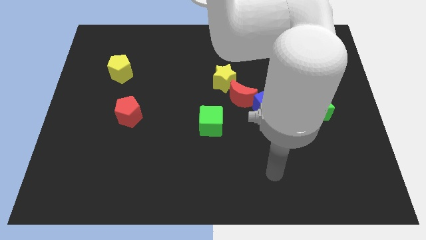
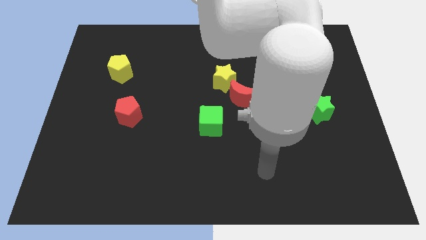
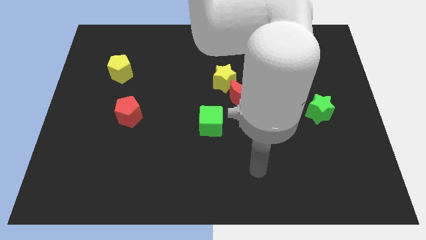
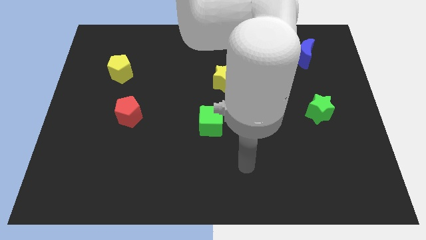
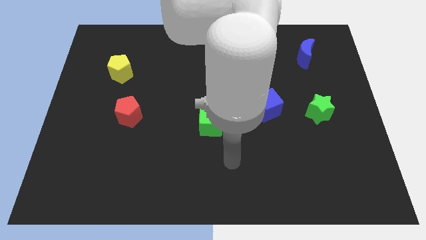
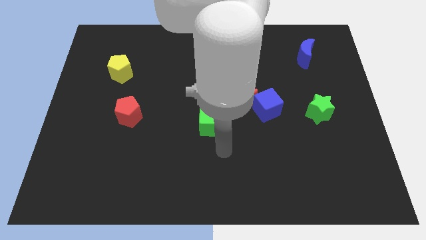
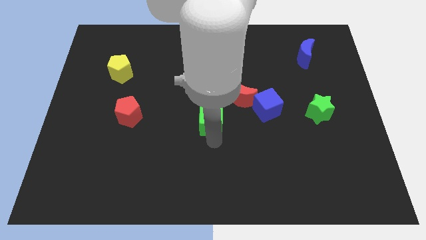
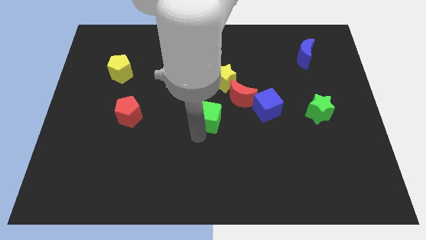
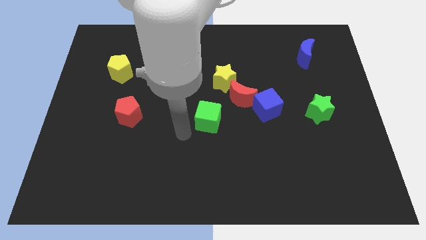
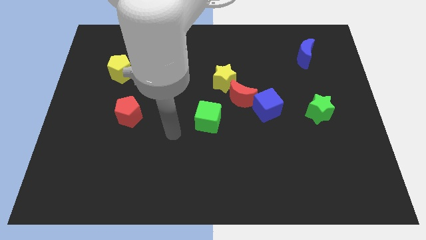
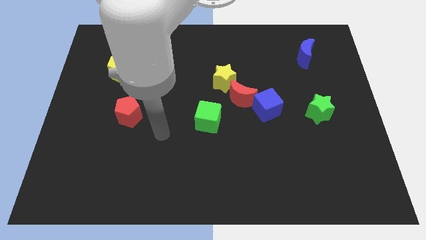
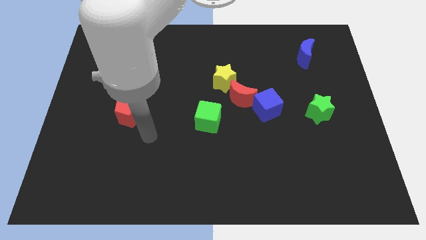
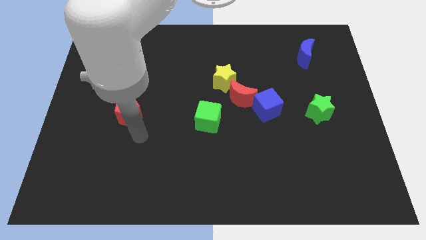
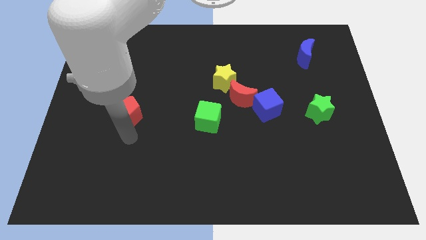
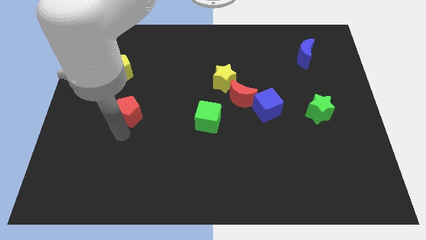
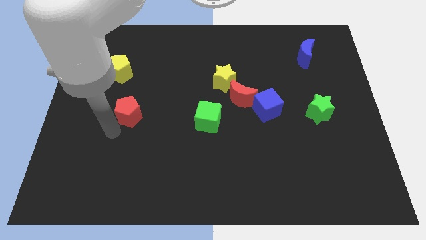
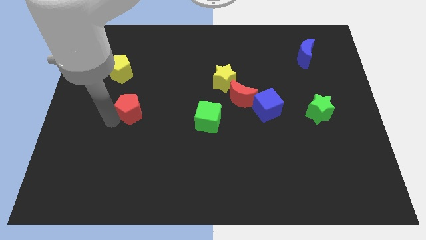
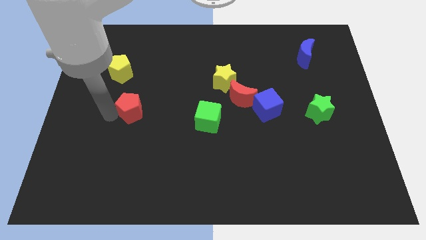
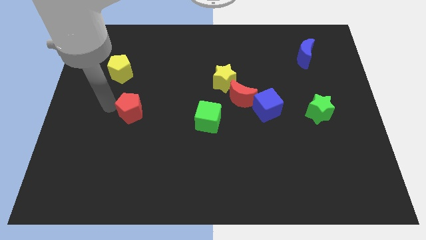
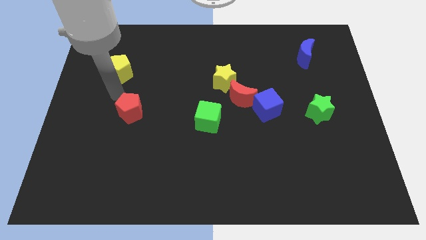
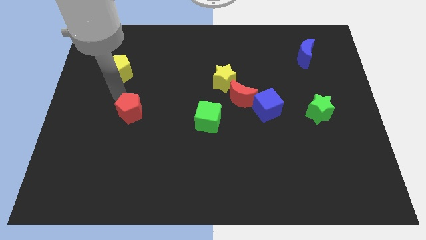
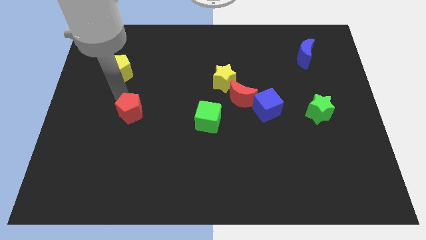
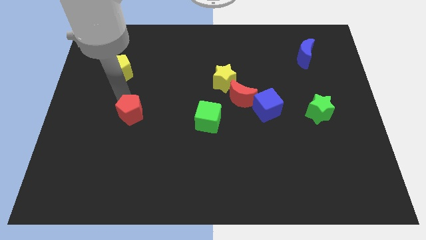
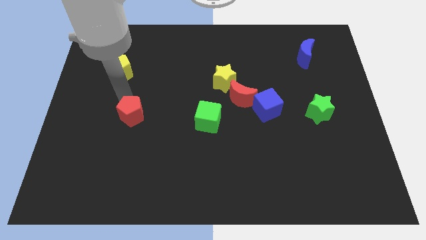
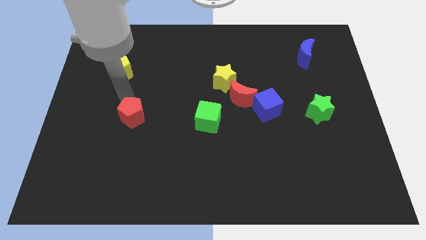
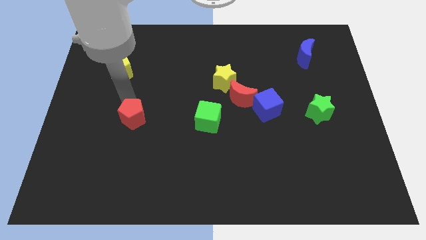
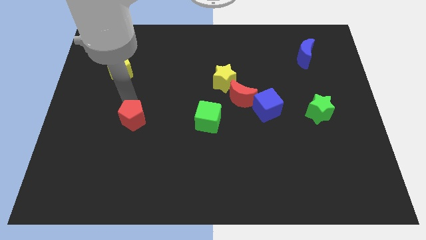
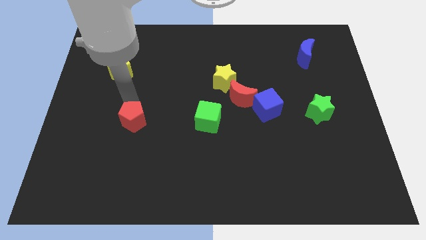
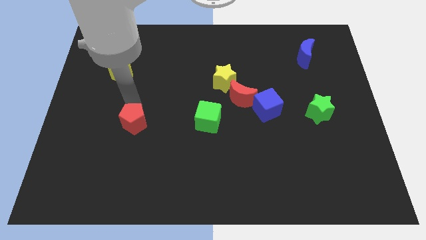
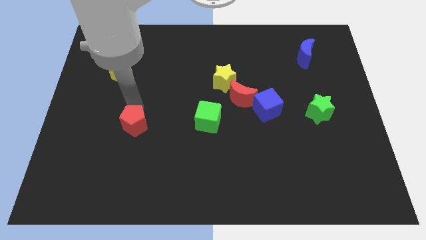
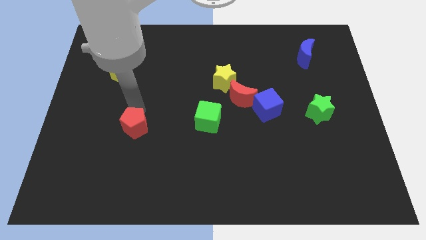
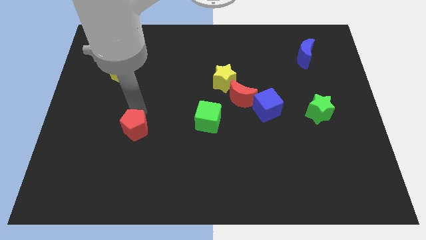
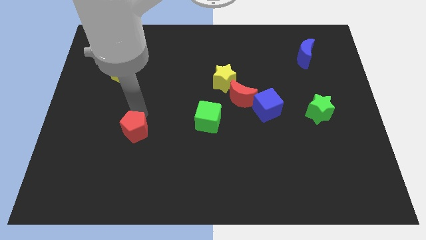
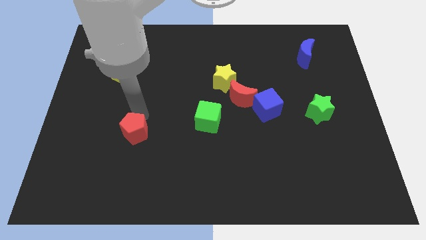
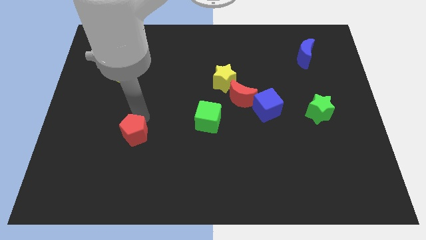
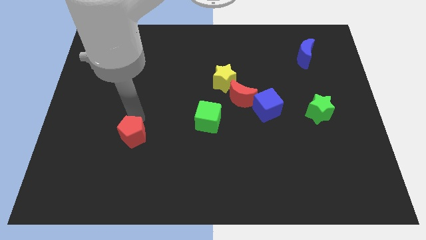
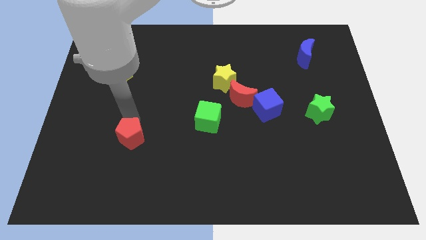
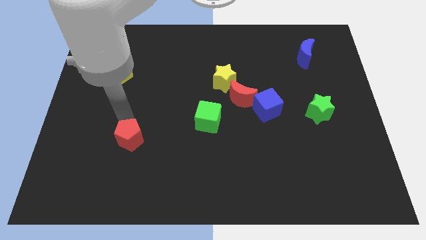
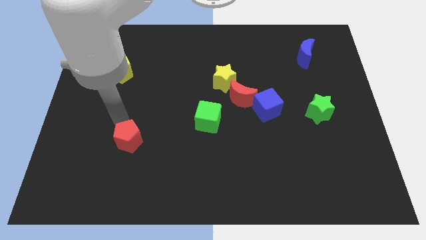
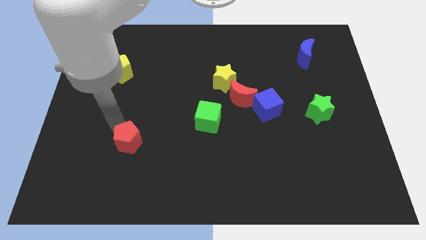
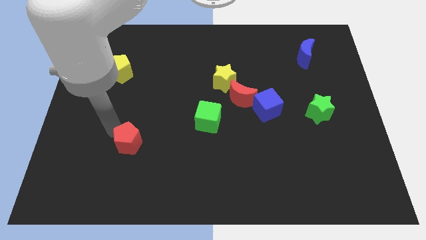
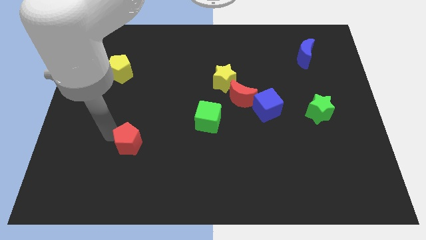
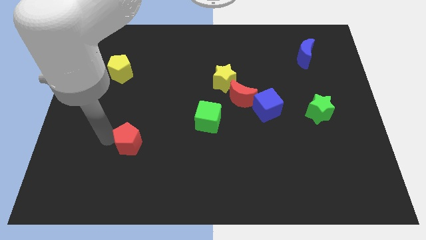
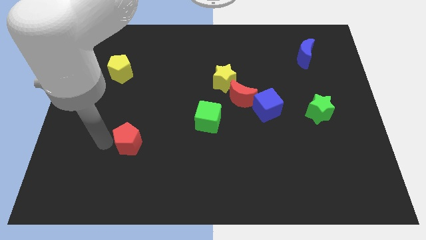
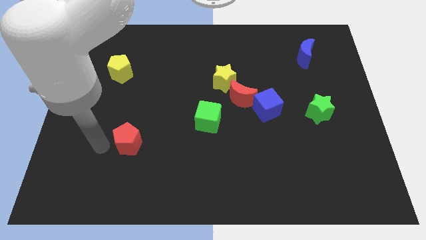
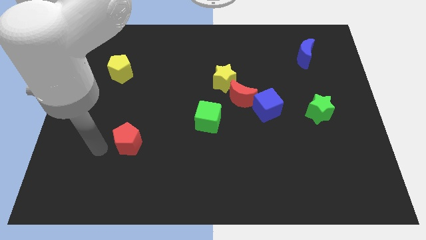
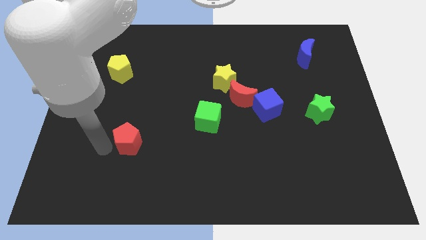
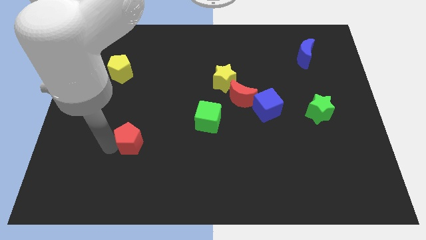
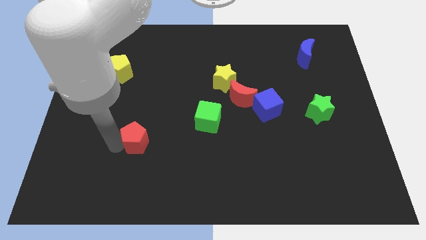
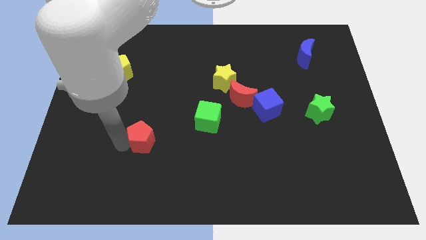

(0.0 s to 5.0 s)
slide the red pentagon downwards and right slightly

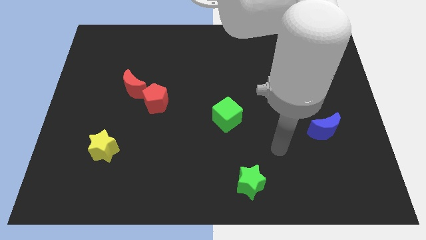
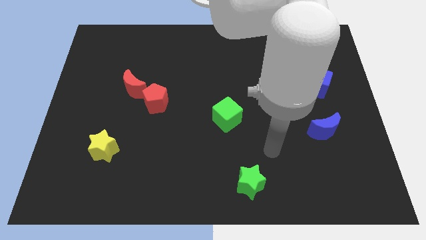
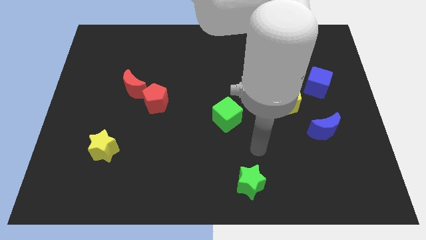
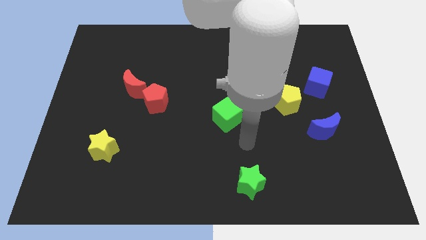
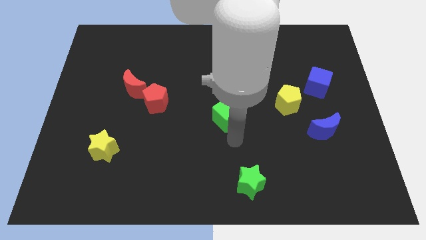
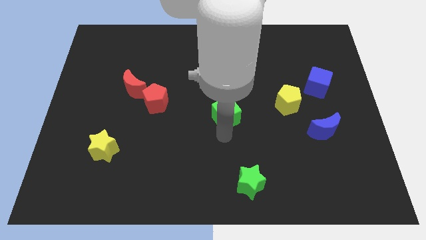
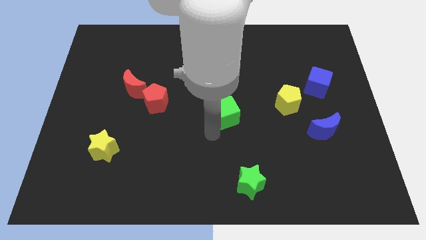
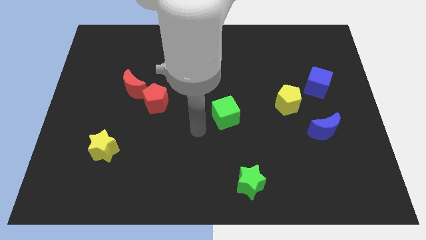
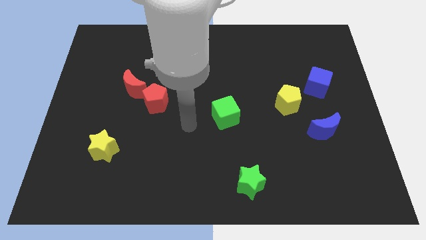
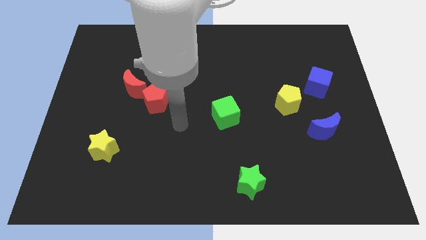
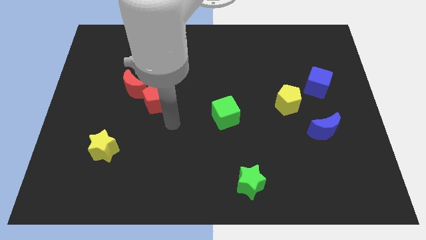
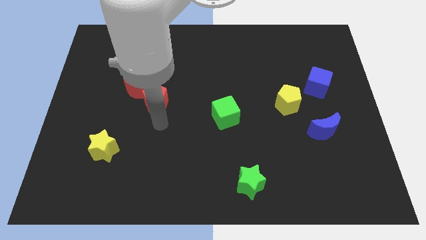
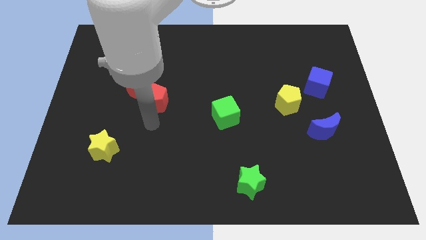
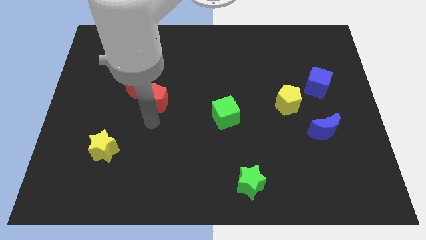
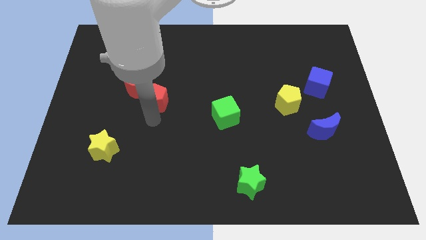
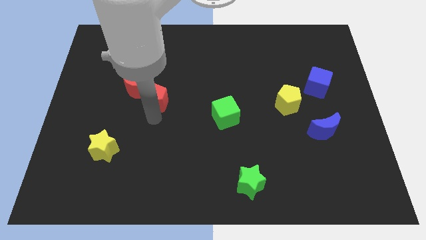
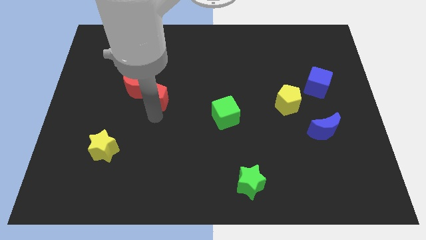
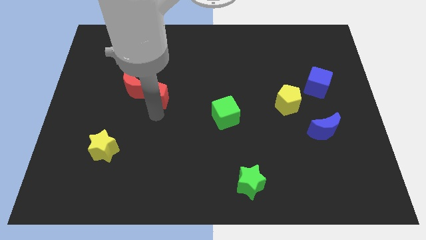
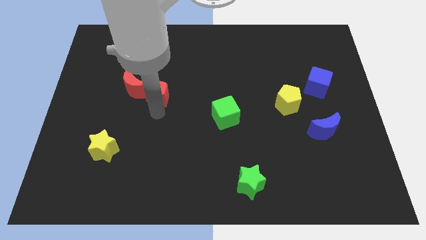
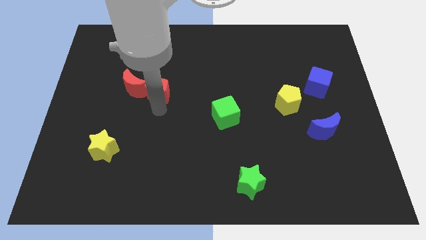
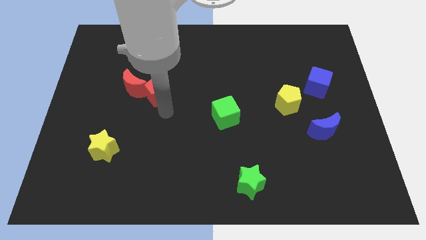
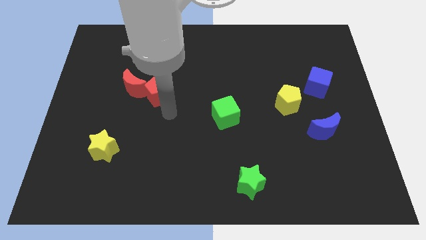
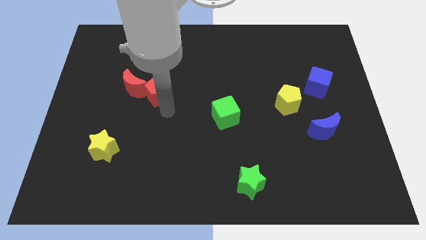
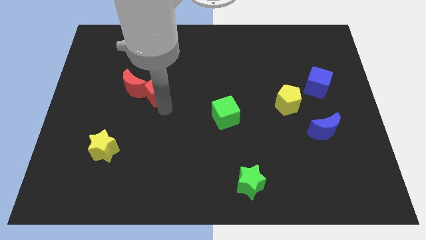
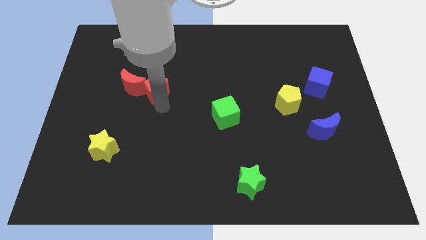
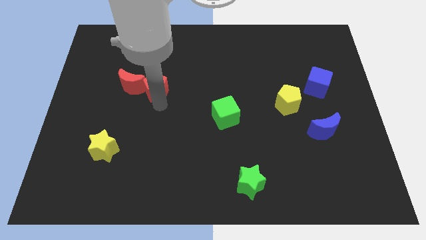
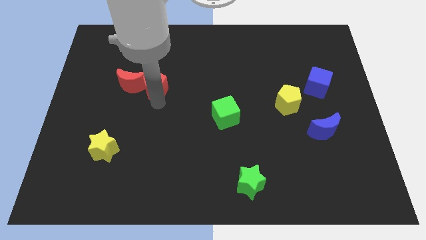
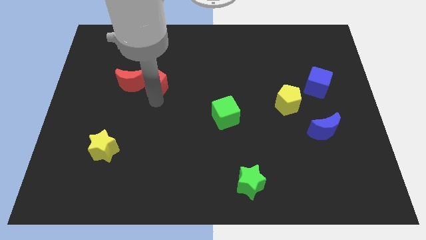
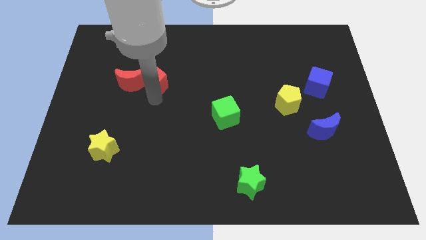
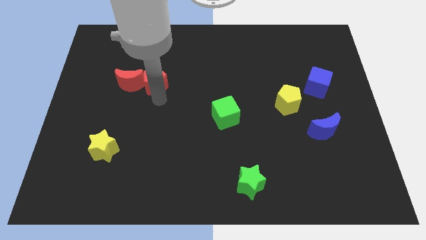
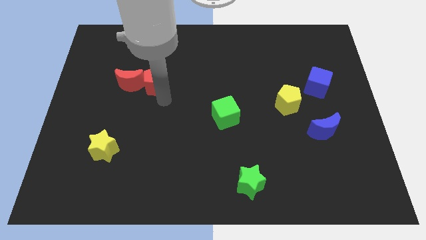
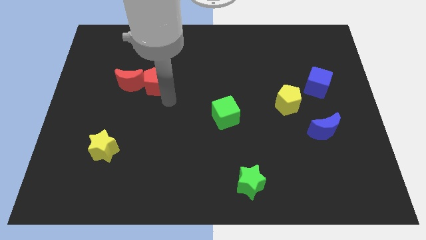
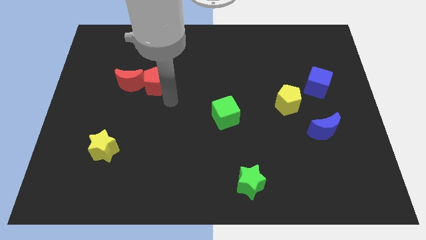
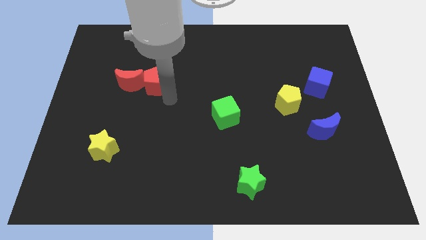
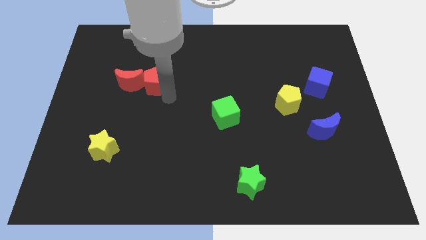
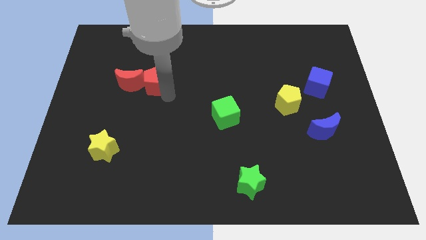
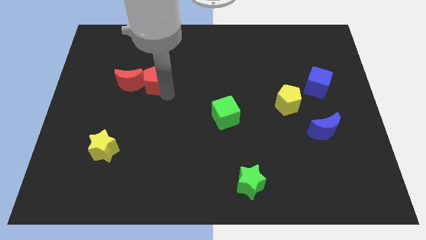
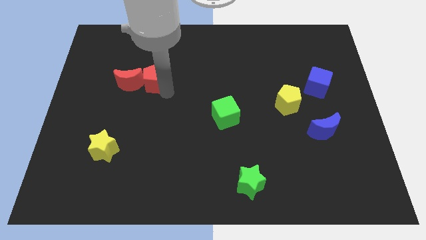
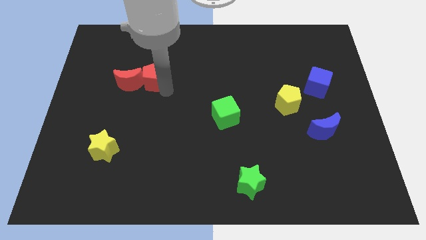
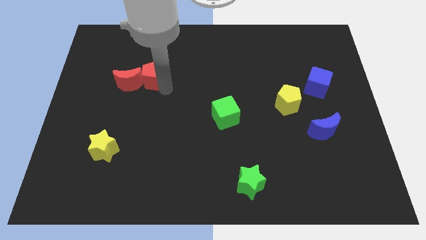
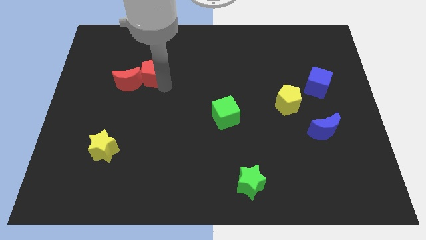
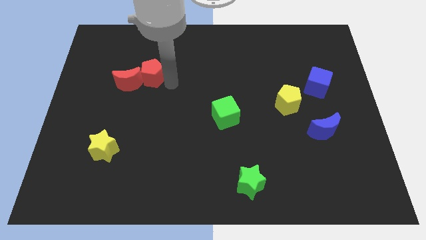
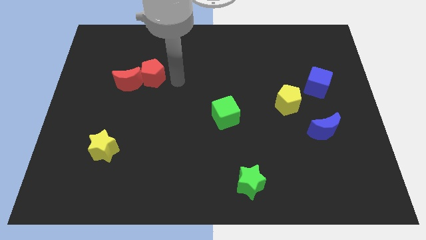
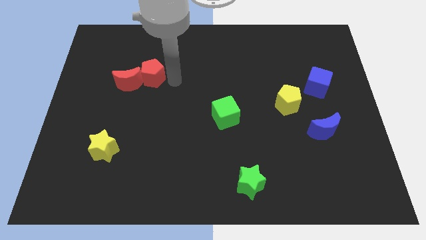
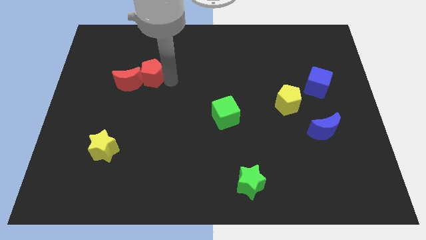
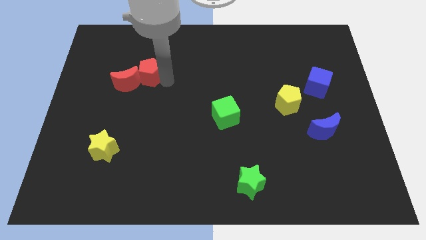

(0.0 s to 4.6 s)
slightly move the red pentagon upwards and left diagonally
